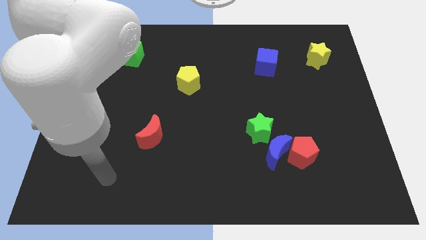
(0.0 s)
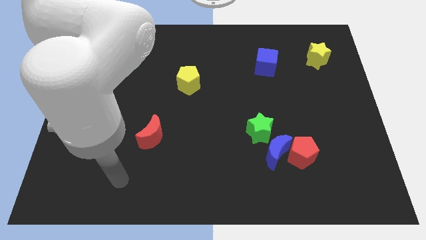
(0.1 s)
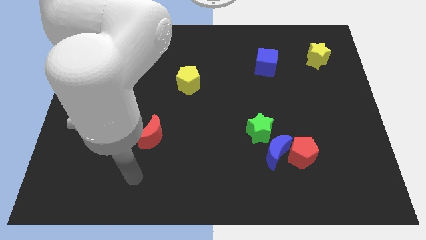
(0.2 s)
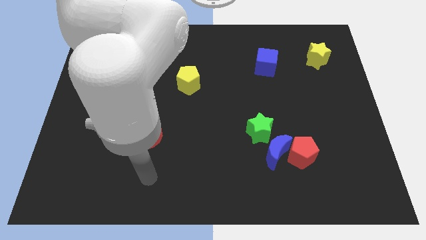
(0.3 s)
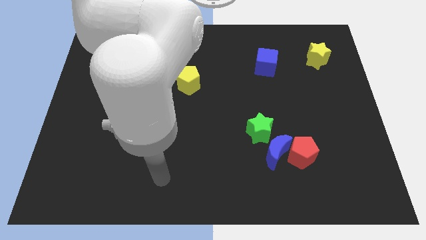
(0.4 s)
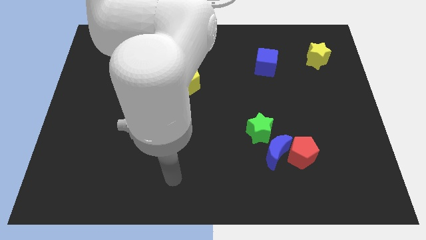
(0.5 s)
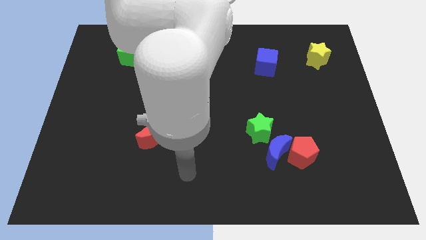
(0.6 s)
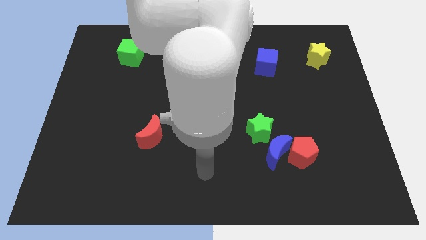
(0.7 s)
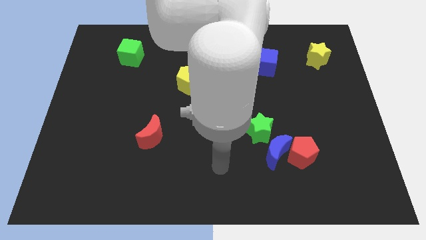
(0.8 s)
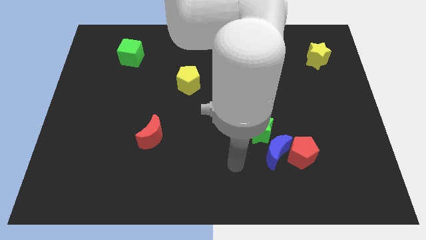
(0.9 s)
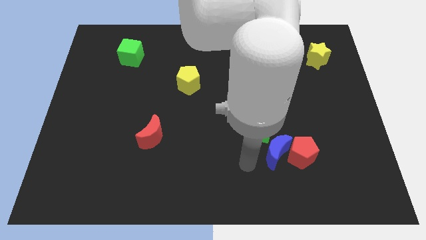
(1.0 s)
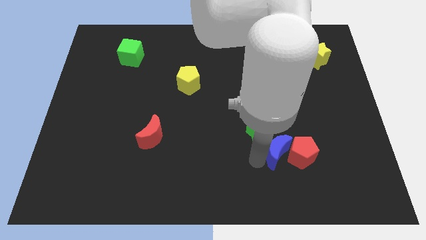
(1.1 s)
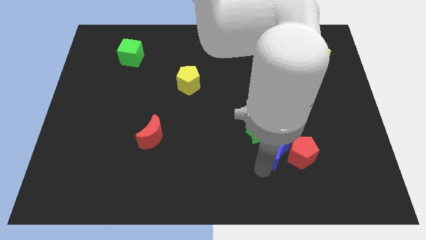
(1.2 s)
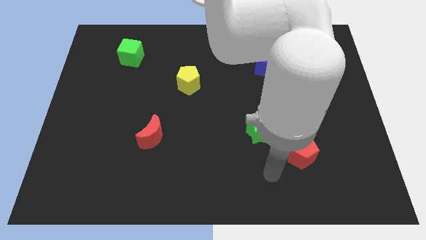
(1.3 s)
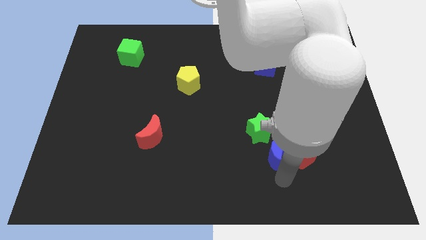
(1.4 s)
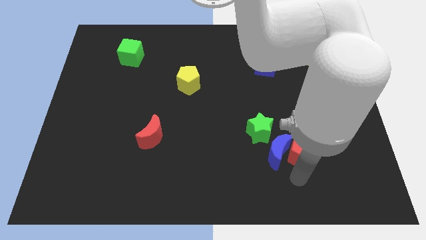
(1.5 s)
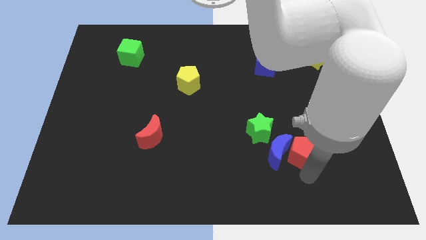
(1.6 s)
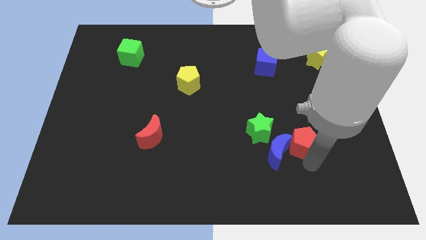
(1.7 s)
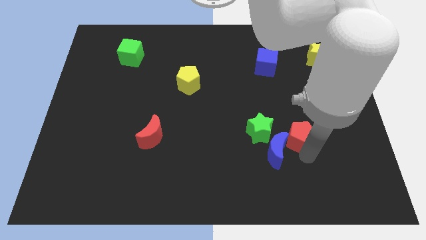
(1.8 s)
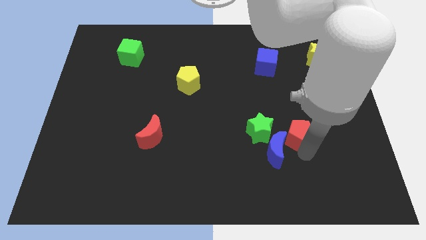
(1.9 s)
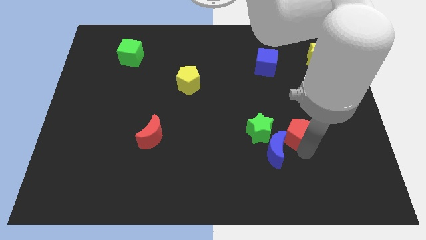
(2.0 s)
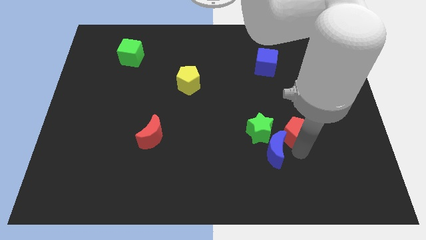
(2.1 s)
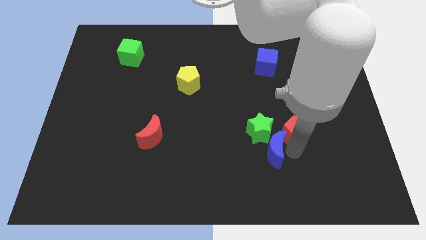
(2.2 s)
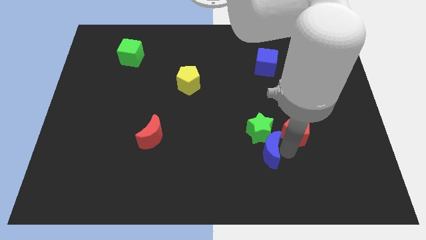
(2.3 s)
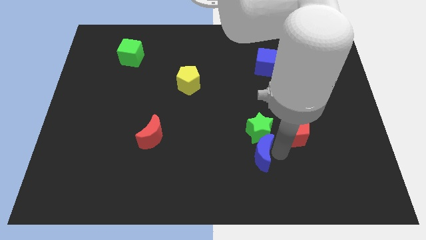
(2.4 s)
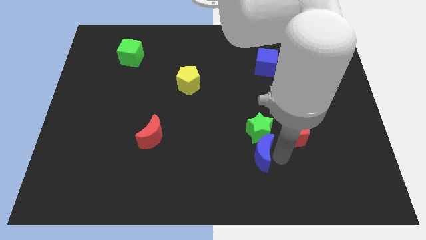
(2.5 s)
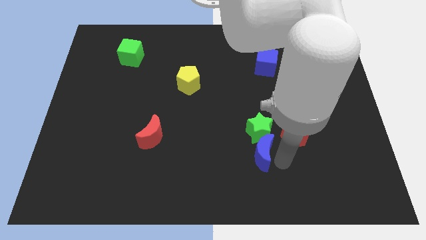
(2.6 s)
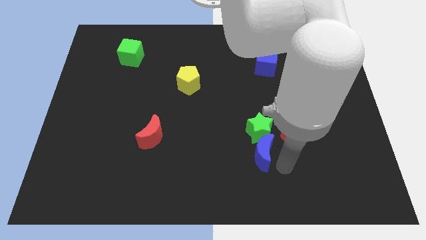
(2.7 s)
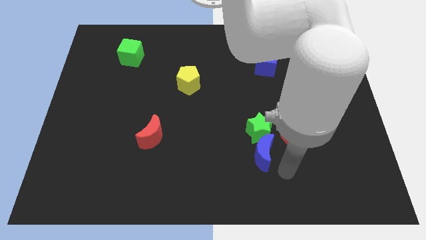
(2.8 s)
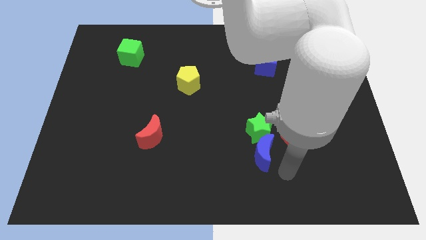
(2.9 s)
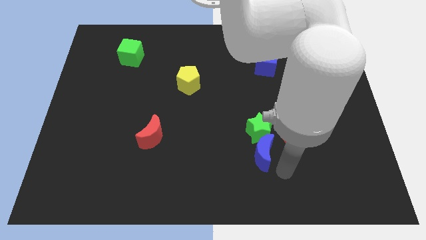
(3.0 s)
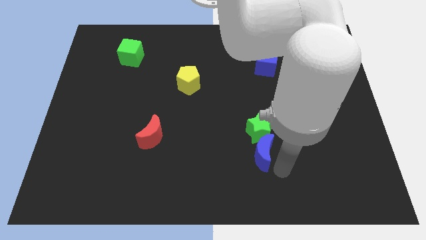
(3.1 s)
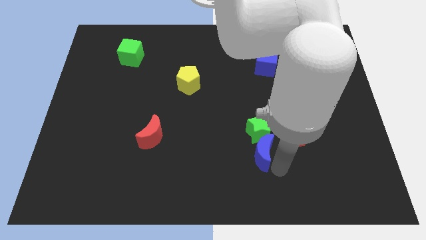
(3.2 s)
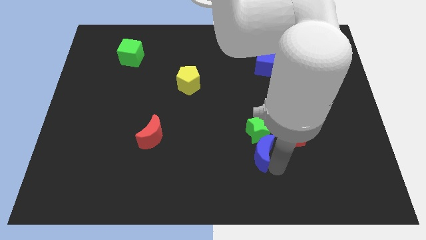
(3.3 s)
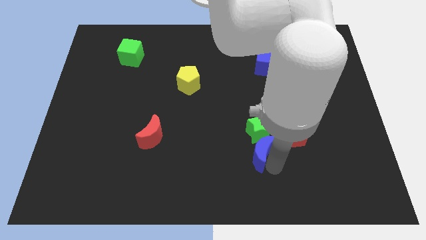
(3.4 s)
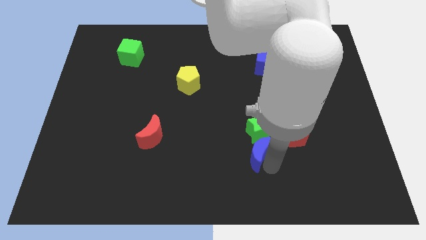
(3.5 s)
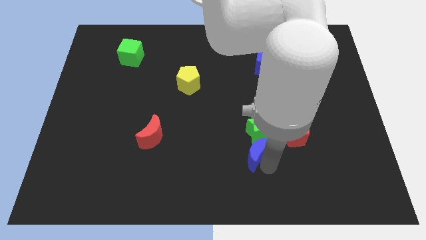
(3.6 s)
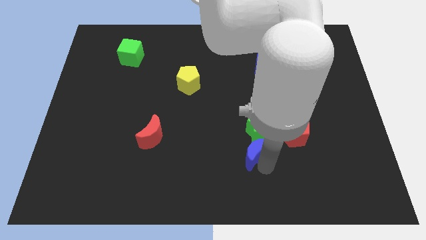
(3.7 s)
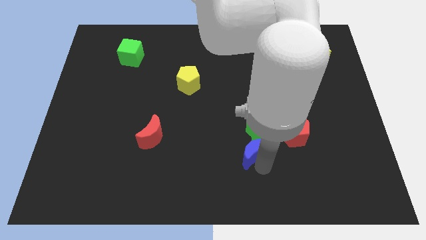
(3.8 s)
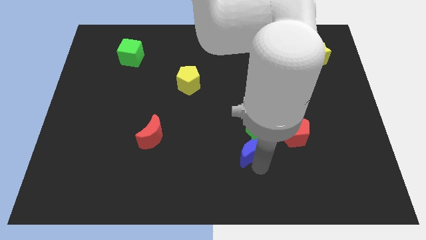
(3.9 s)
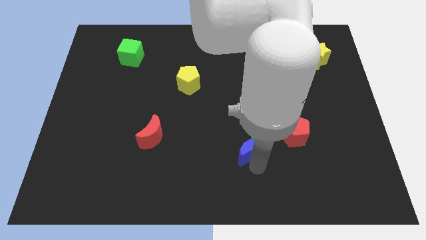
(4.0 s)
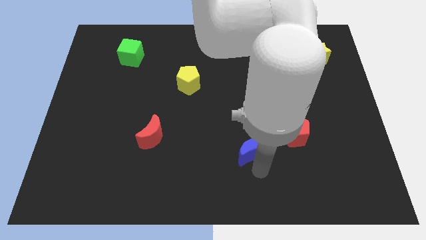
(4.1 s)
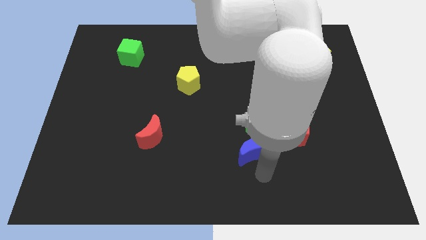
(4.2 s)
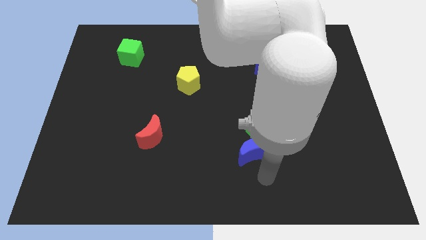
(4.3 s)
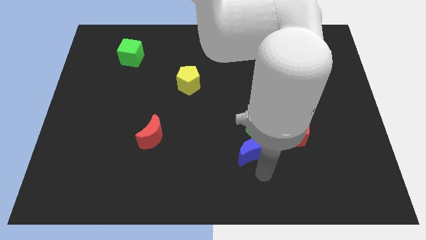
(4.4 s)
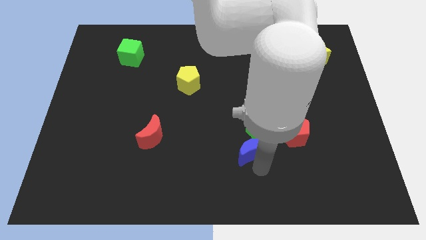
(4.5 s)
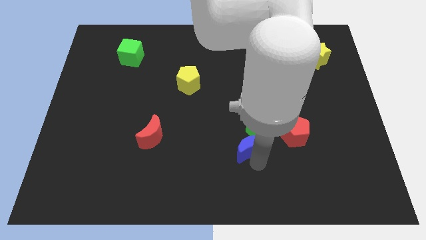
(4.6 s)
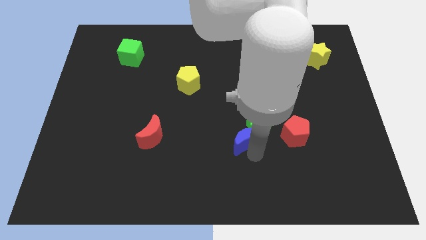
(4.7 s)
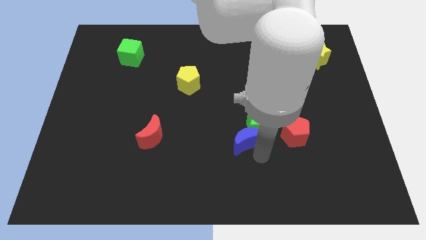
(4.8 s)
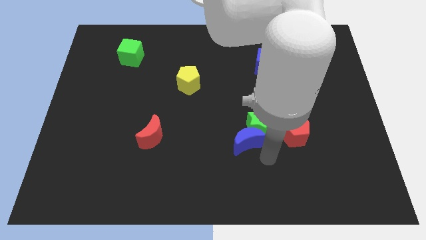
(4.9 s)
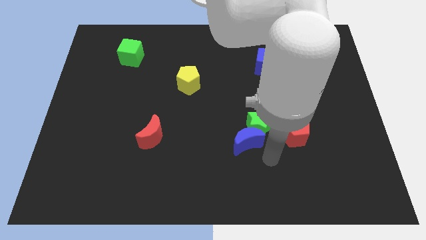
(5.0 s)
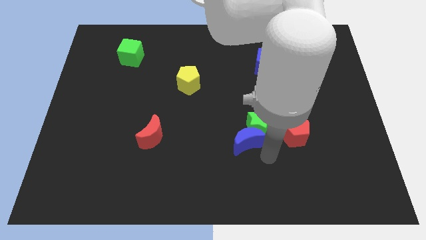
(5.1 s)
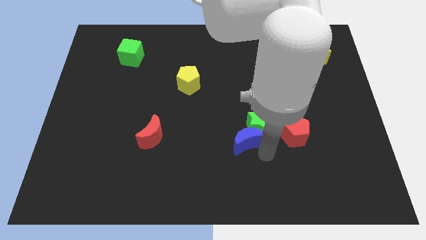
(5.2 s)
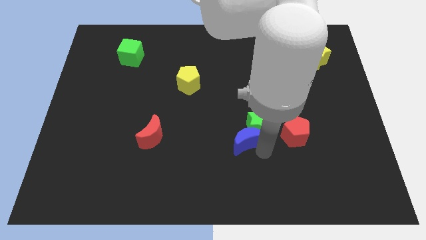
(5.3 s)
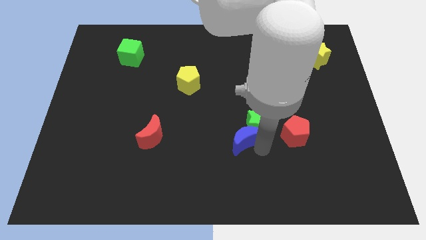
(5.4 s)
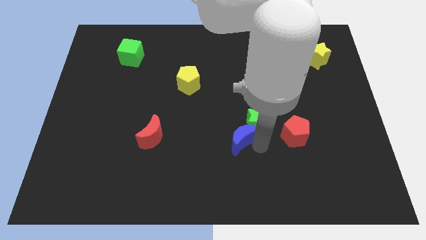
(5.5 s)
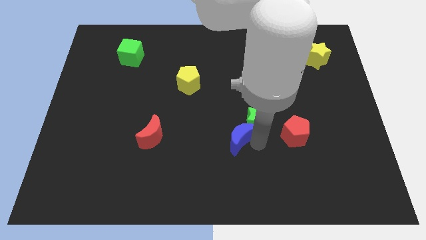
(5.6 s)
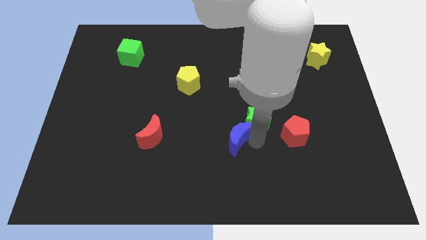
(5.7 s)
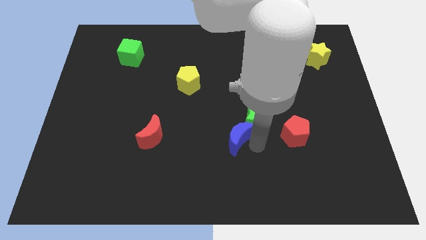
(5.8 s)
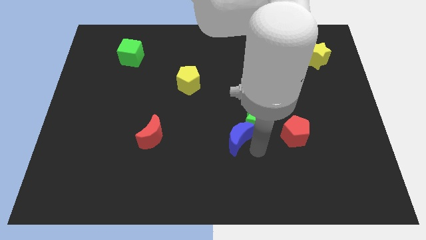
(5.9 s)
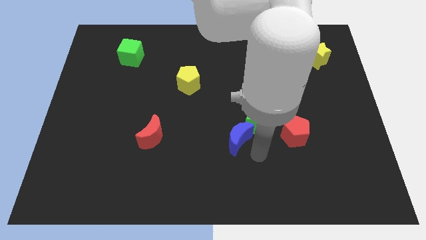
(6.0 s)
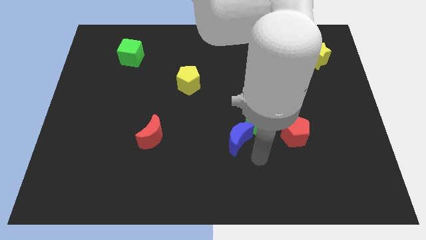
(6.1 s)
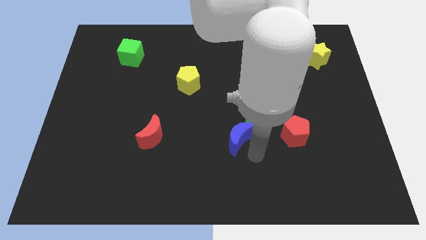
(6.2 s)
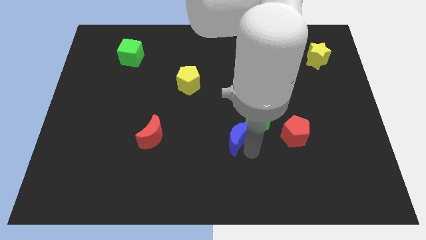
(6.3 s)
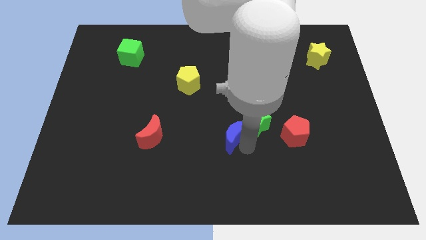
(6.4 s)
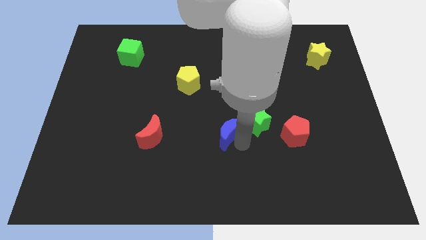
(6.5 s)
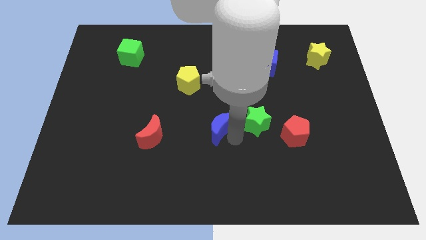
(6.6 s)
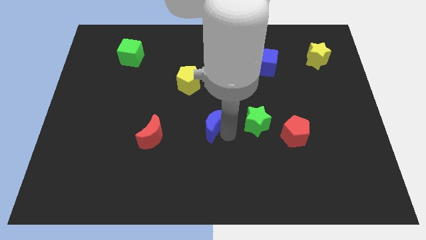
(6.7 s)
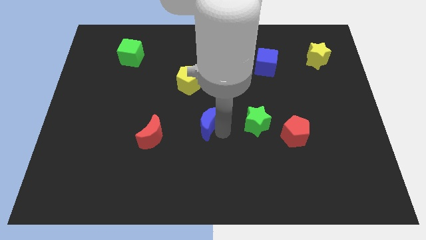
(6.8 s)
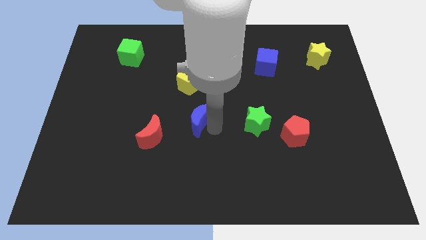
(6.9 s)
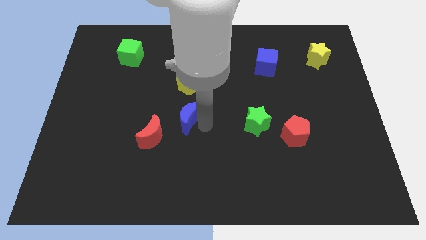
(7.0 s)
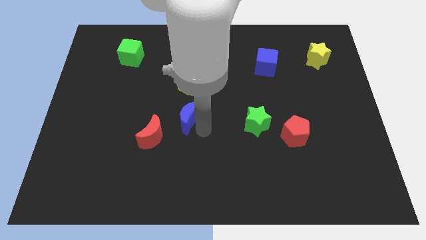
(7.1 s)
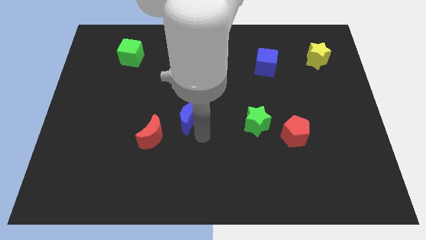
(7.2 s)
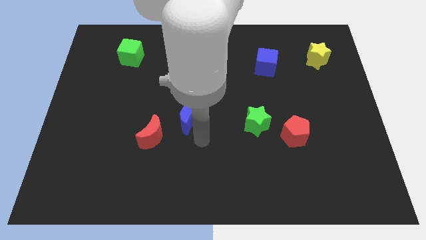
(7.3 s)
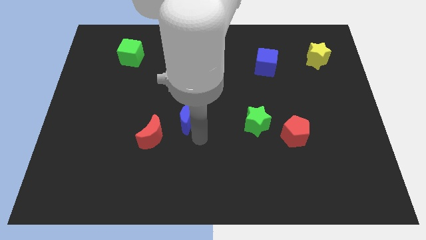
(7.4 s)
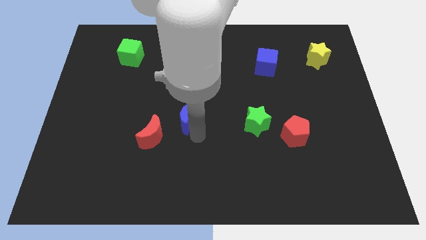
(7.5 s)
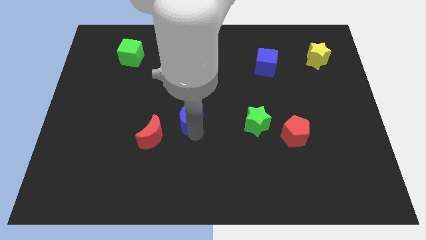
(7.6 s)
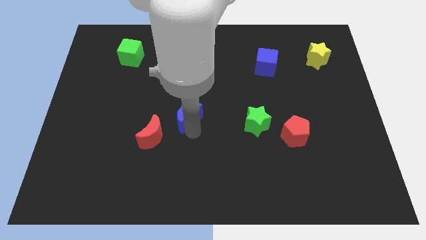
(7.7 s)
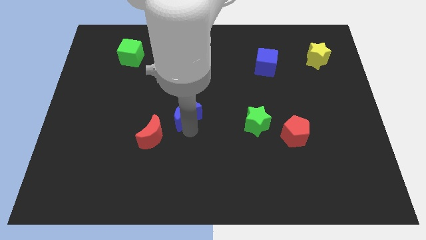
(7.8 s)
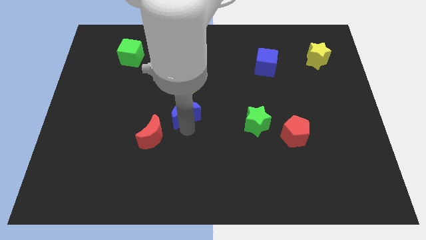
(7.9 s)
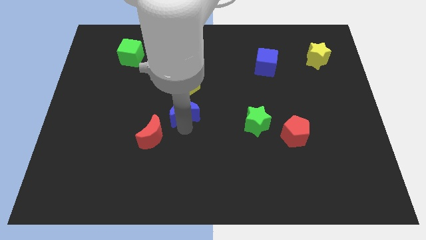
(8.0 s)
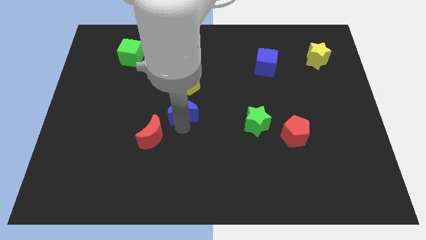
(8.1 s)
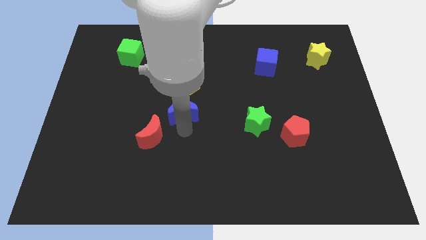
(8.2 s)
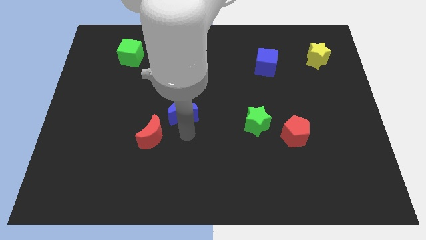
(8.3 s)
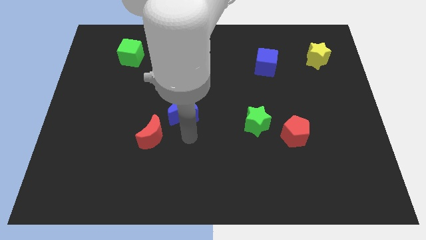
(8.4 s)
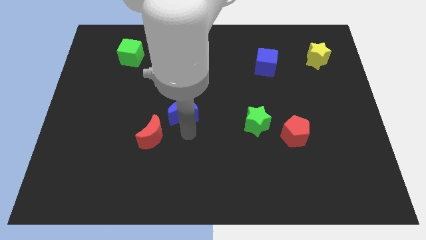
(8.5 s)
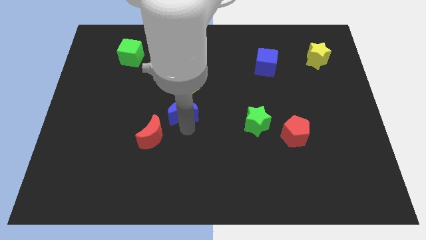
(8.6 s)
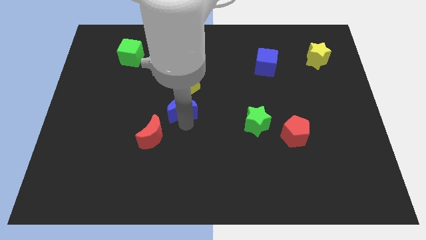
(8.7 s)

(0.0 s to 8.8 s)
push the blue moon diagonally upwards and to the left
